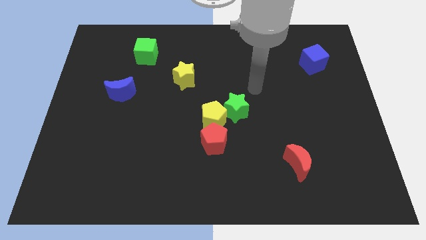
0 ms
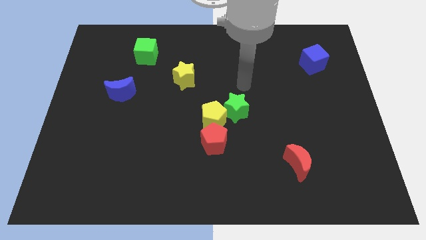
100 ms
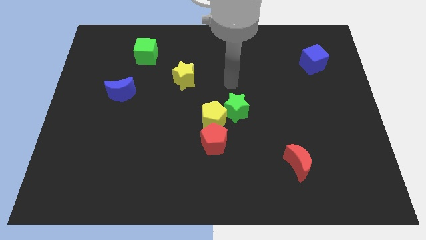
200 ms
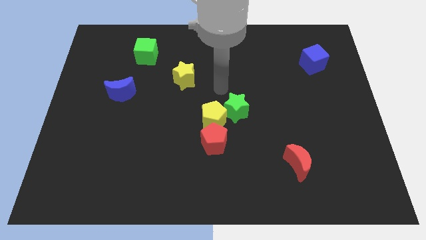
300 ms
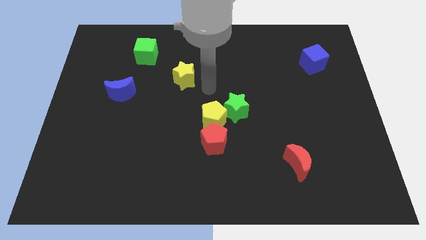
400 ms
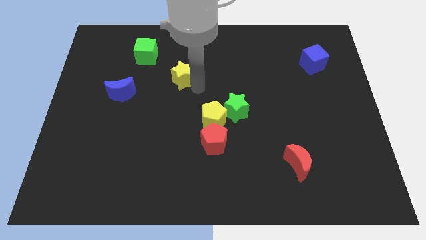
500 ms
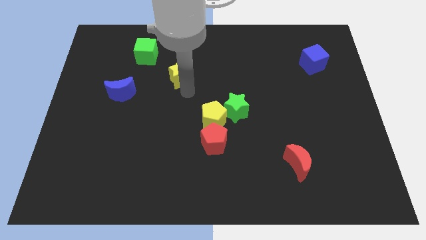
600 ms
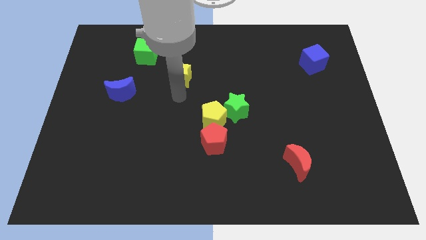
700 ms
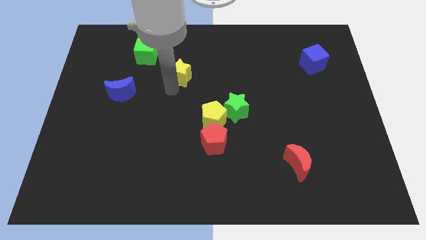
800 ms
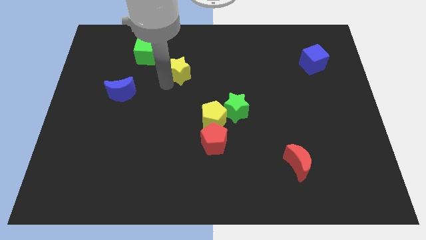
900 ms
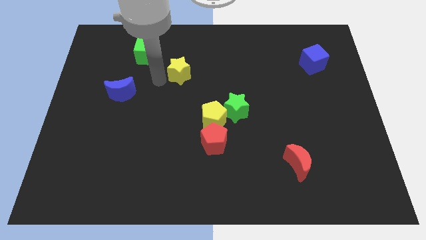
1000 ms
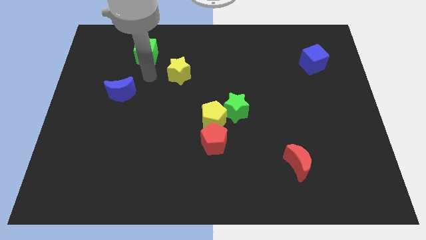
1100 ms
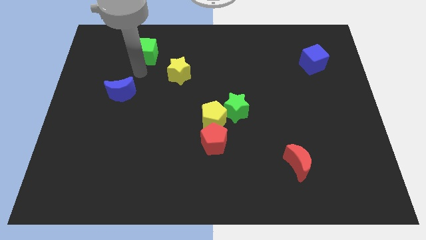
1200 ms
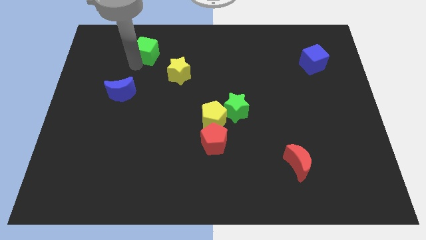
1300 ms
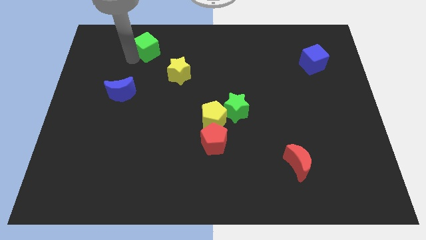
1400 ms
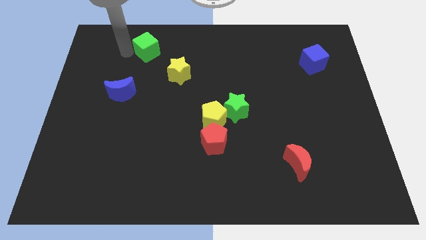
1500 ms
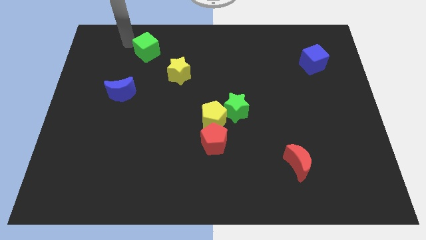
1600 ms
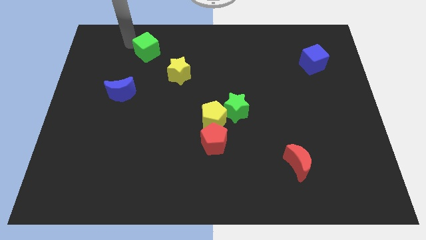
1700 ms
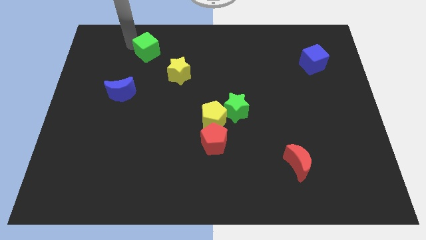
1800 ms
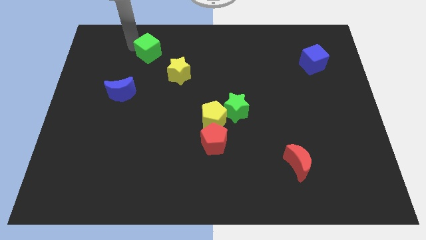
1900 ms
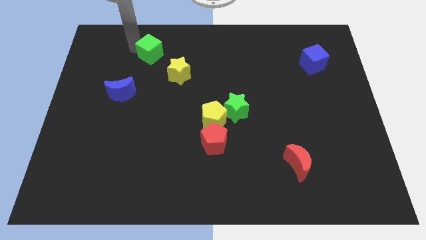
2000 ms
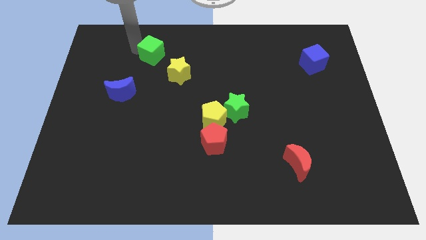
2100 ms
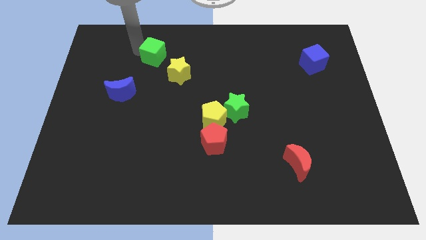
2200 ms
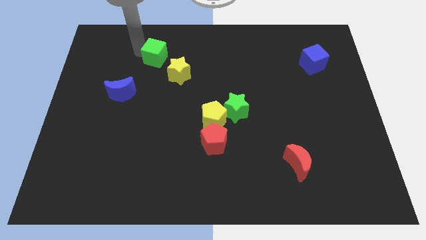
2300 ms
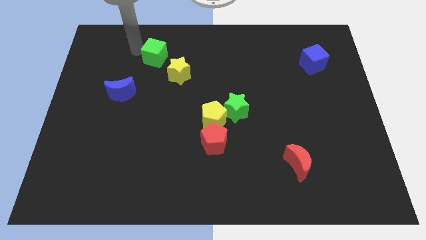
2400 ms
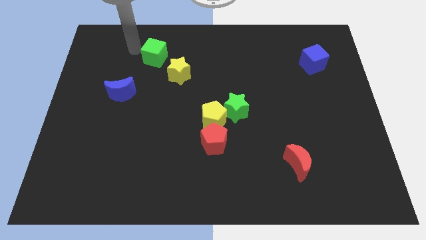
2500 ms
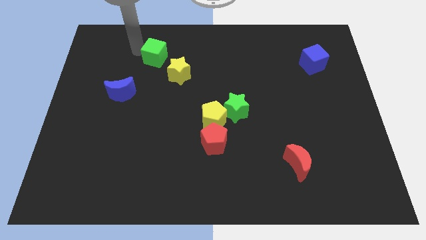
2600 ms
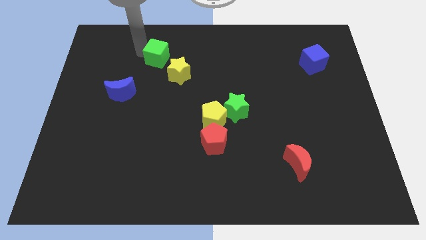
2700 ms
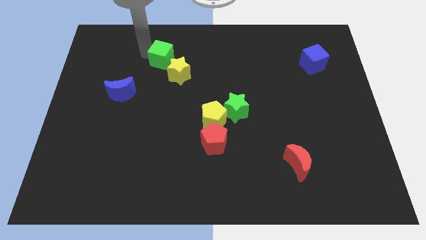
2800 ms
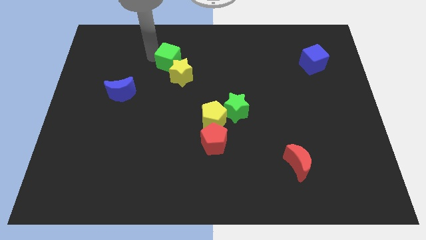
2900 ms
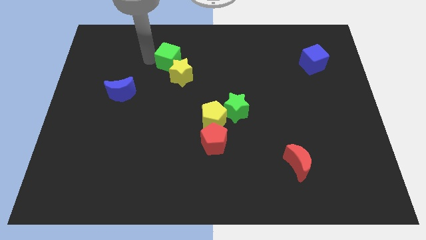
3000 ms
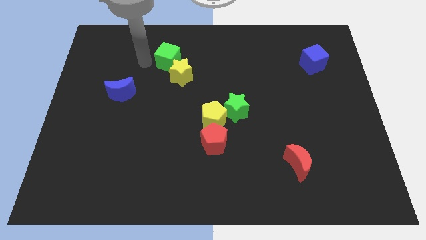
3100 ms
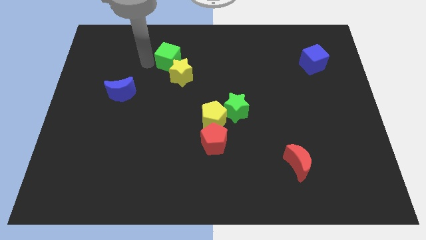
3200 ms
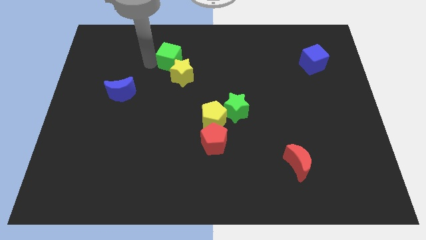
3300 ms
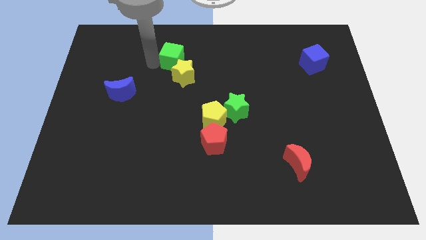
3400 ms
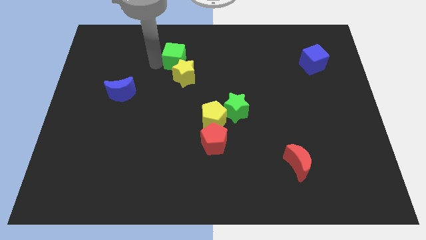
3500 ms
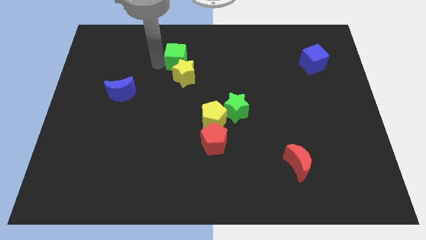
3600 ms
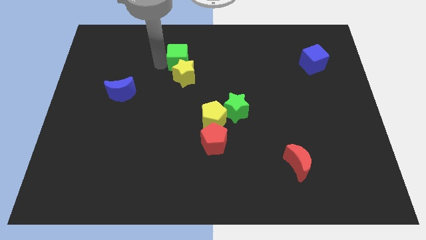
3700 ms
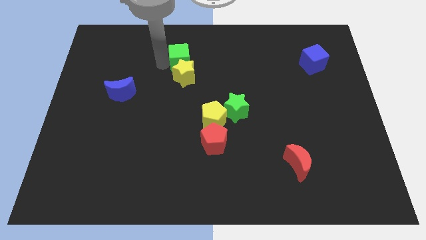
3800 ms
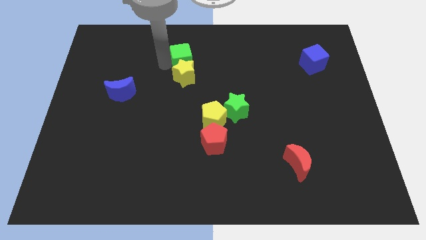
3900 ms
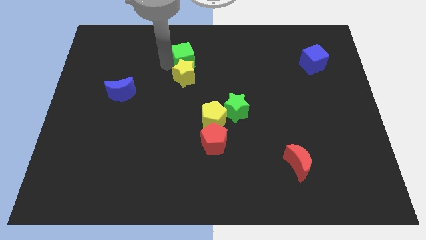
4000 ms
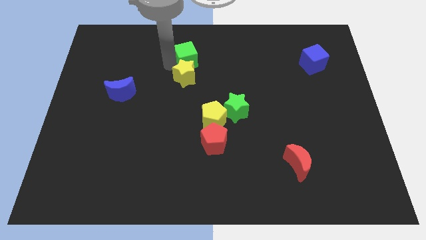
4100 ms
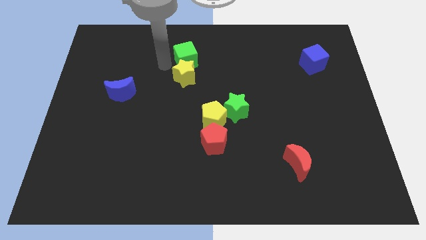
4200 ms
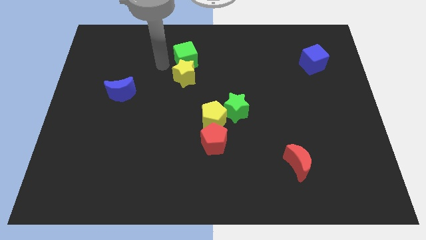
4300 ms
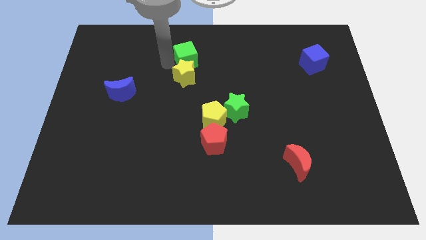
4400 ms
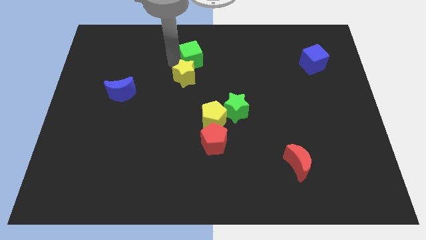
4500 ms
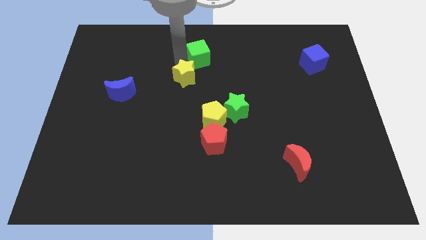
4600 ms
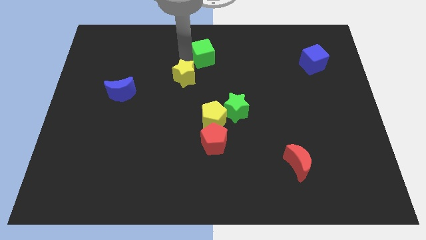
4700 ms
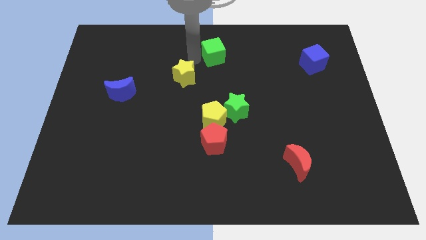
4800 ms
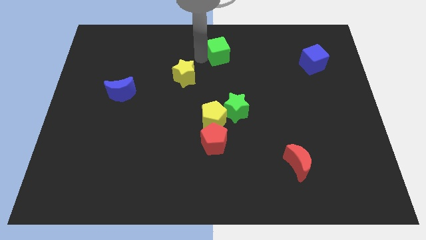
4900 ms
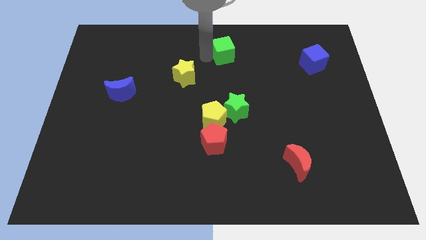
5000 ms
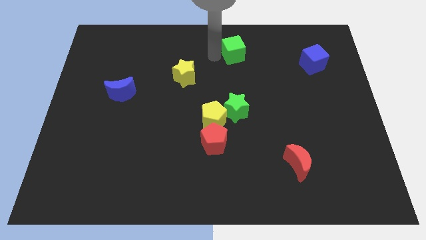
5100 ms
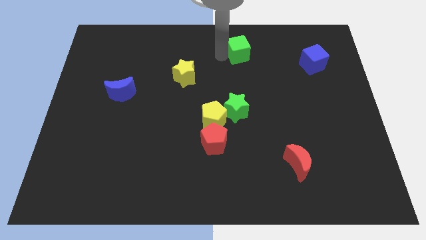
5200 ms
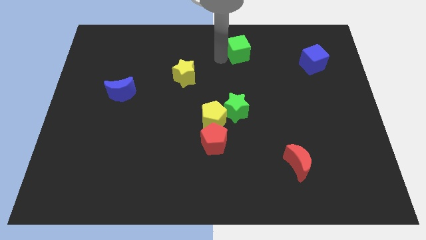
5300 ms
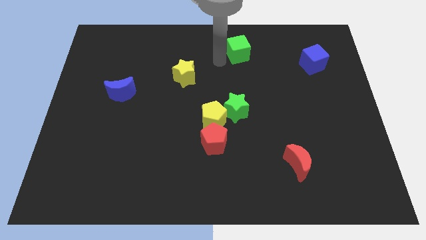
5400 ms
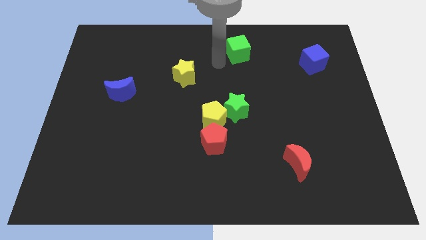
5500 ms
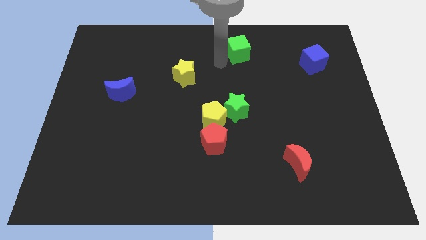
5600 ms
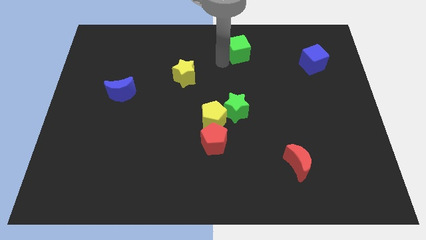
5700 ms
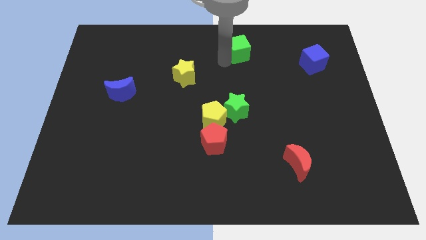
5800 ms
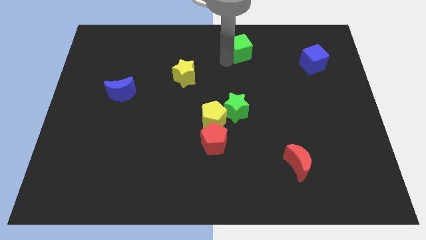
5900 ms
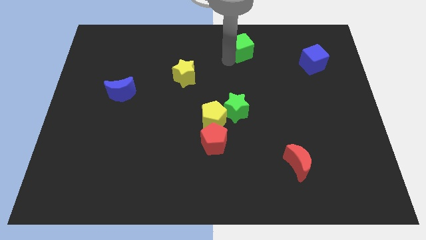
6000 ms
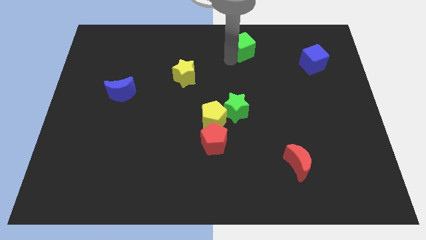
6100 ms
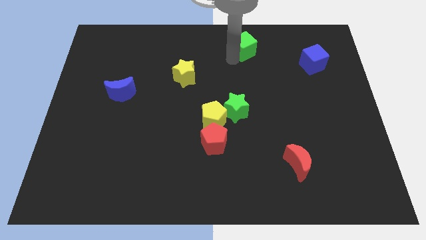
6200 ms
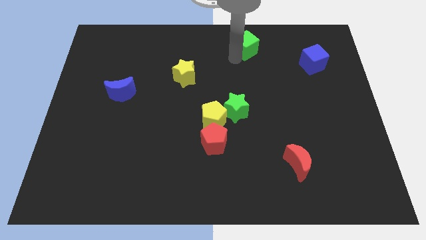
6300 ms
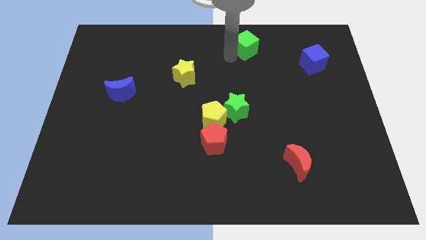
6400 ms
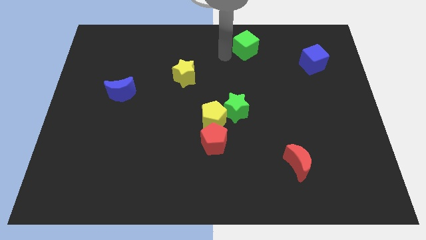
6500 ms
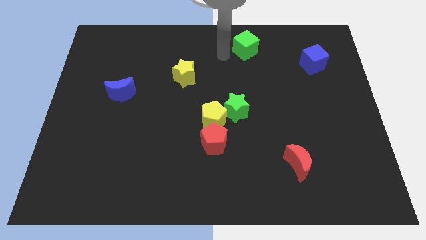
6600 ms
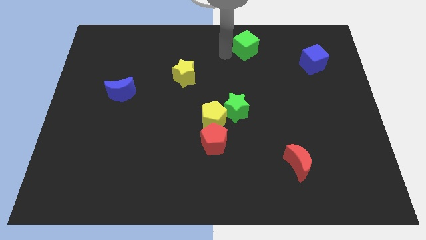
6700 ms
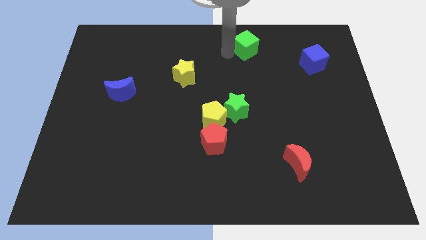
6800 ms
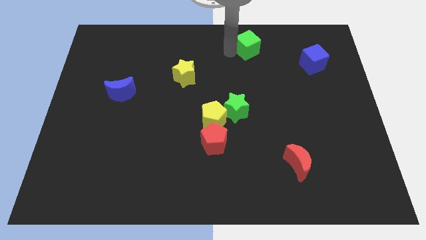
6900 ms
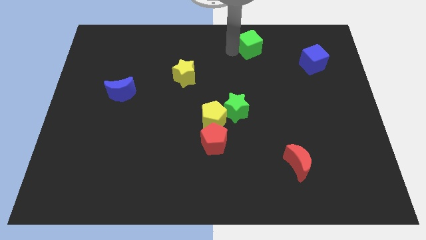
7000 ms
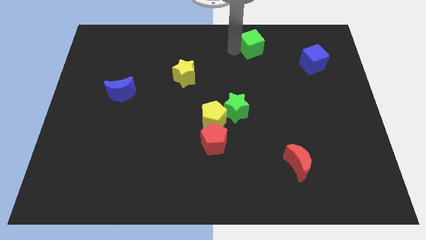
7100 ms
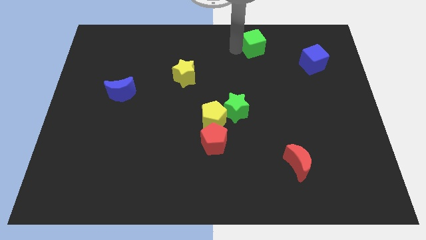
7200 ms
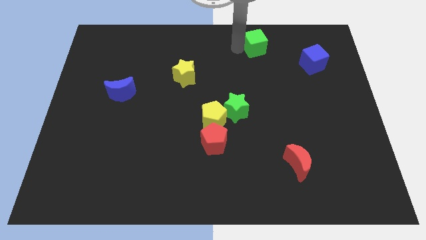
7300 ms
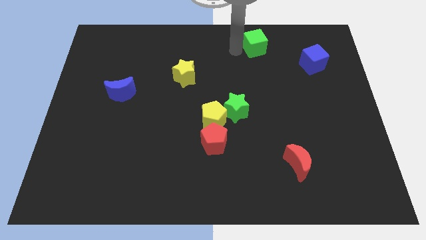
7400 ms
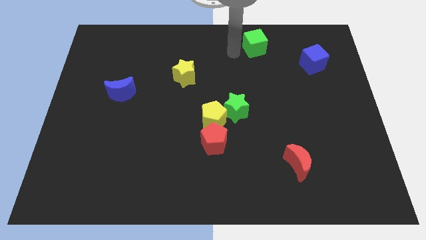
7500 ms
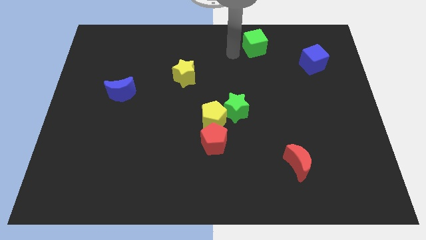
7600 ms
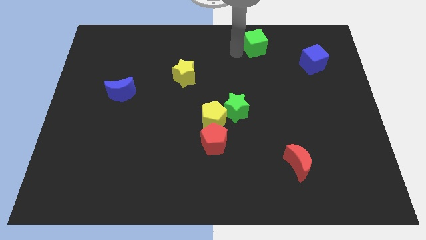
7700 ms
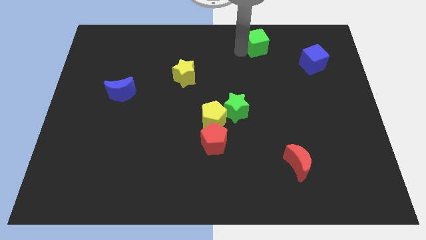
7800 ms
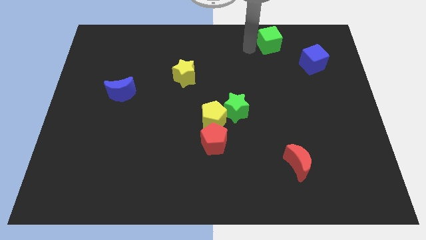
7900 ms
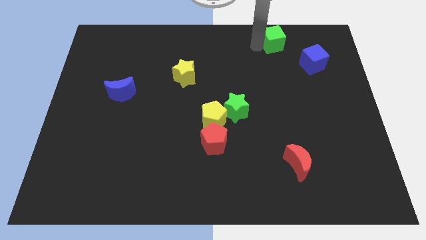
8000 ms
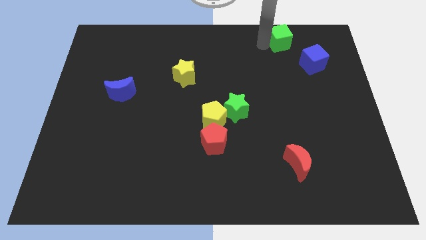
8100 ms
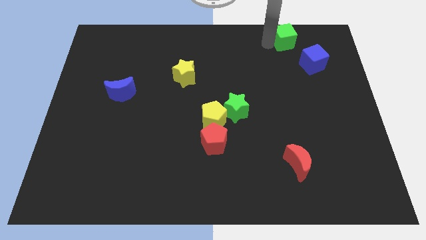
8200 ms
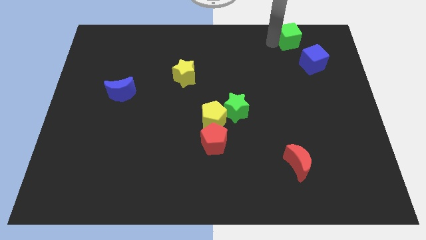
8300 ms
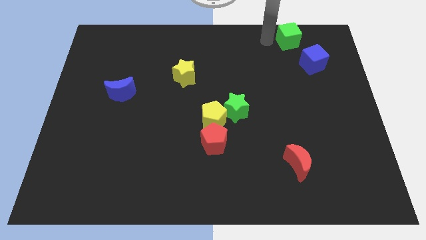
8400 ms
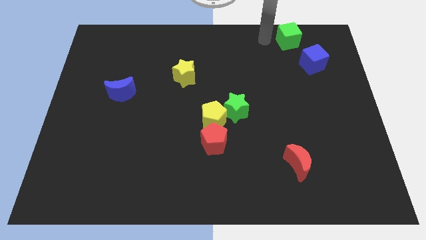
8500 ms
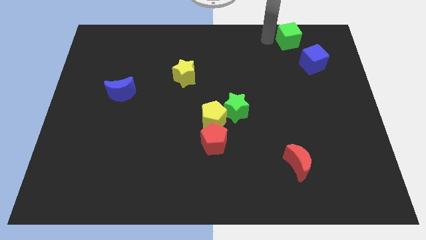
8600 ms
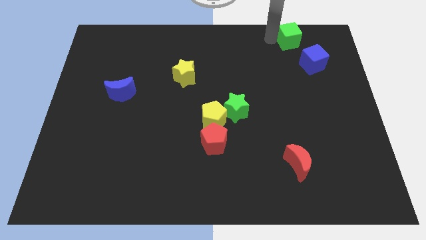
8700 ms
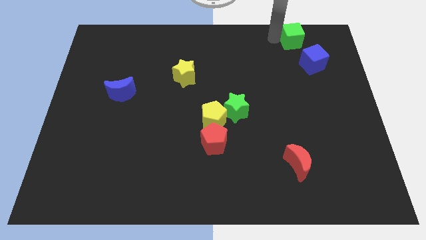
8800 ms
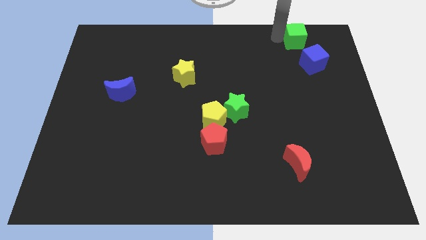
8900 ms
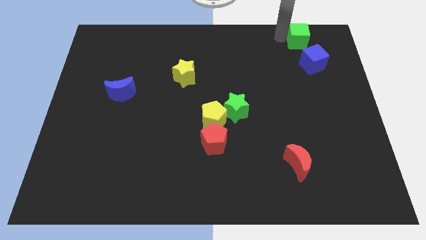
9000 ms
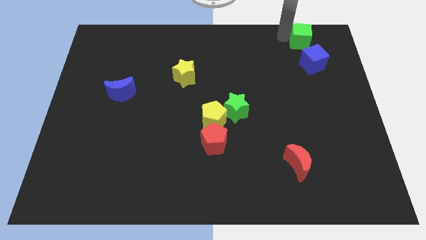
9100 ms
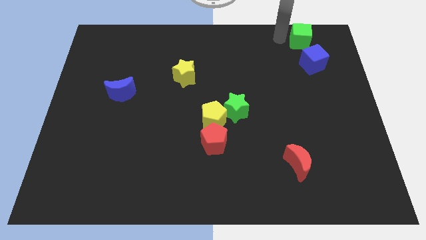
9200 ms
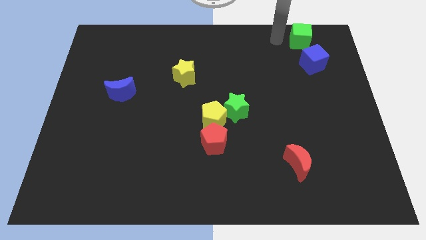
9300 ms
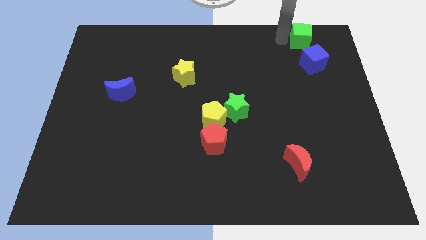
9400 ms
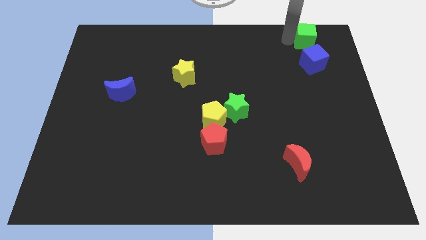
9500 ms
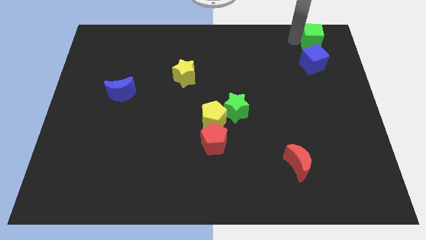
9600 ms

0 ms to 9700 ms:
slide the green cube to the top right
